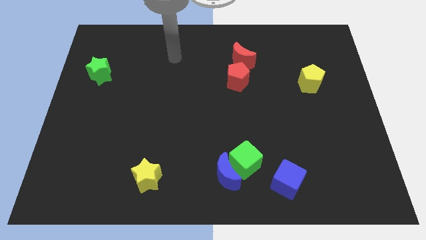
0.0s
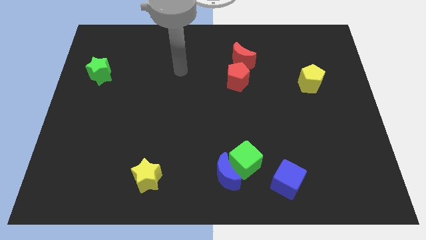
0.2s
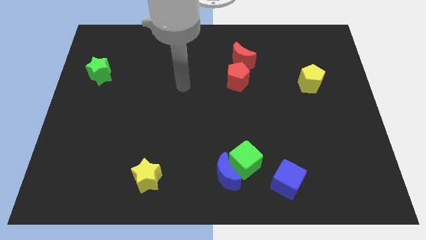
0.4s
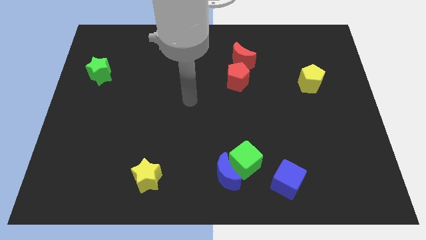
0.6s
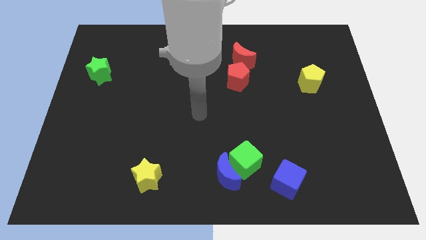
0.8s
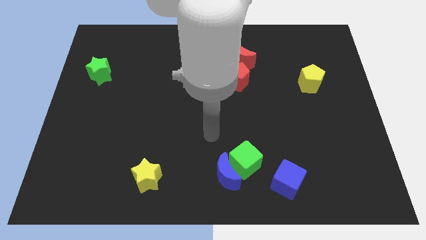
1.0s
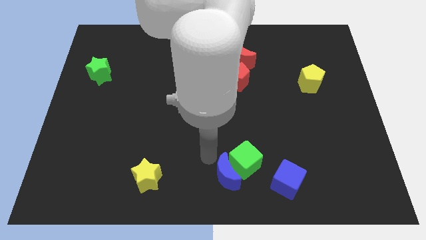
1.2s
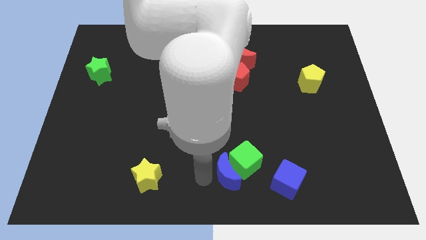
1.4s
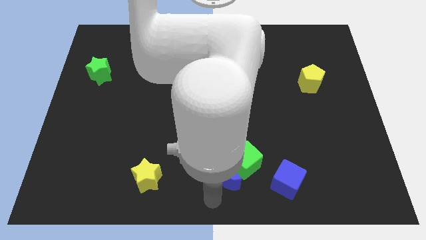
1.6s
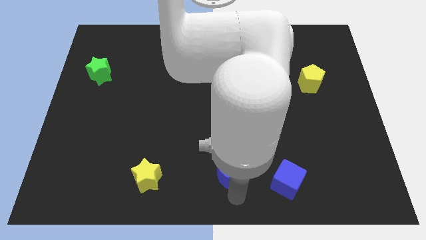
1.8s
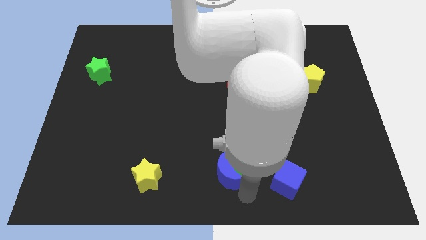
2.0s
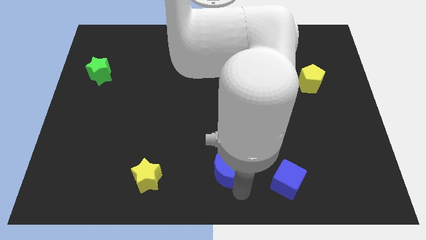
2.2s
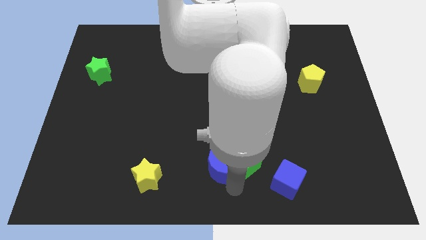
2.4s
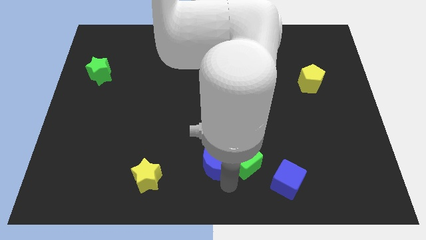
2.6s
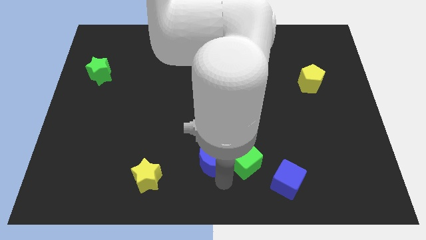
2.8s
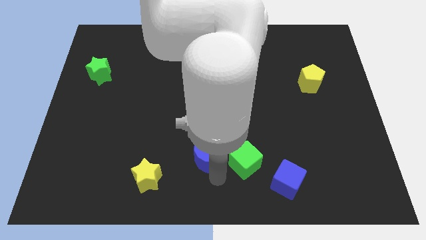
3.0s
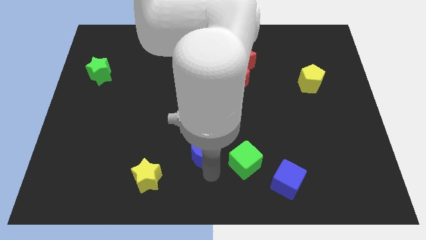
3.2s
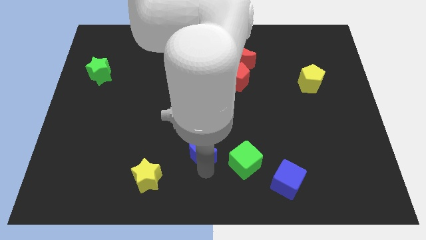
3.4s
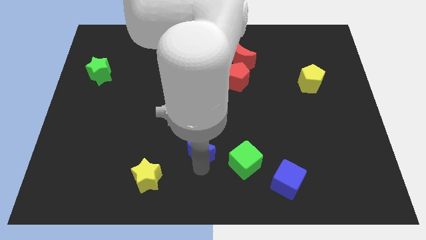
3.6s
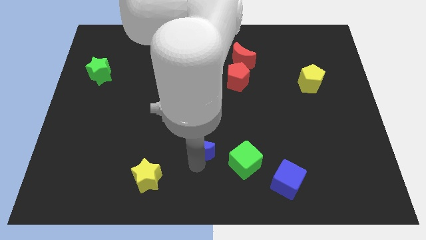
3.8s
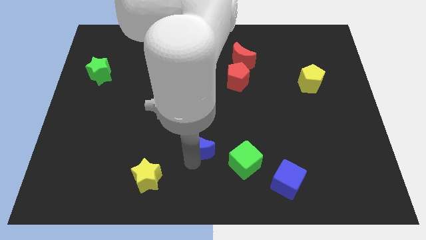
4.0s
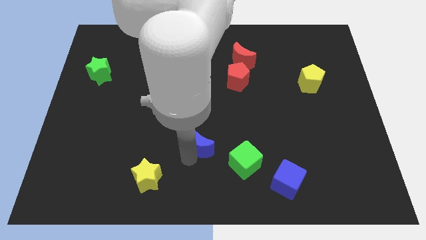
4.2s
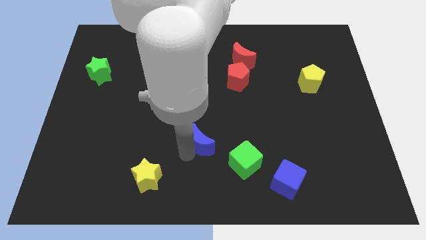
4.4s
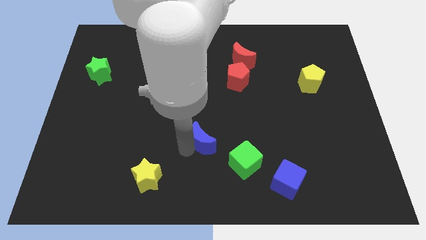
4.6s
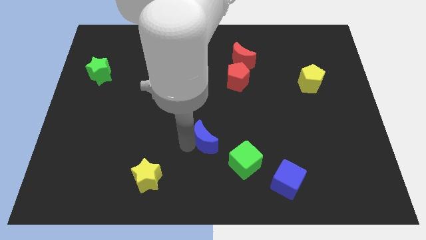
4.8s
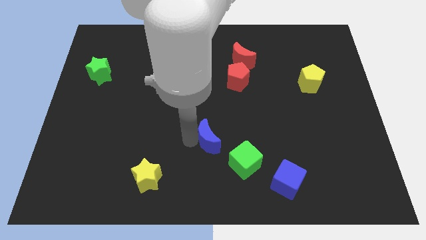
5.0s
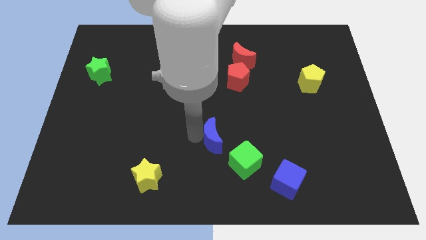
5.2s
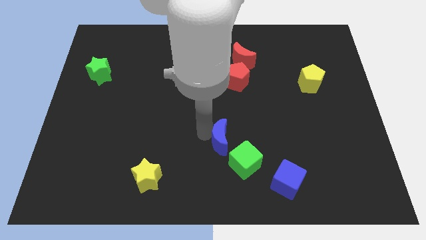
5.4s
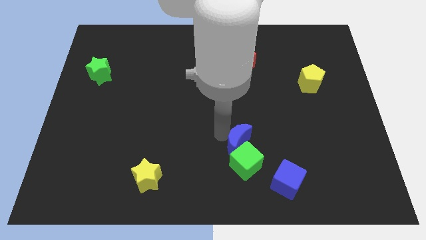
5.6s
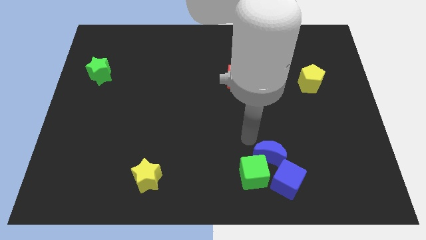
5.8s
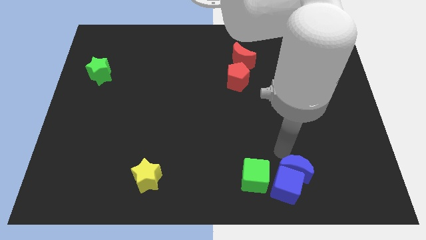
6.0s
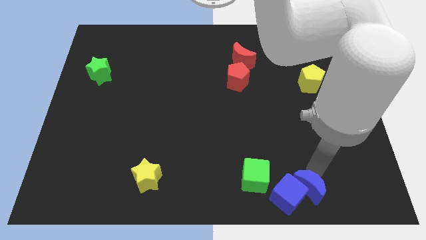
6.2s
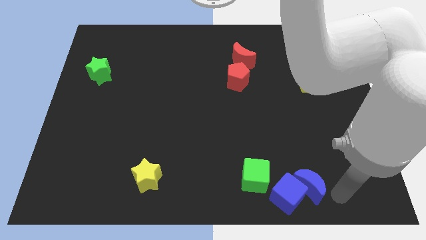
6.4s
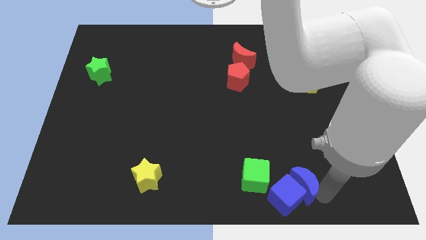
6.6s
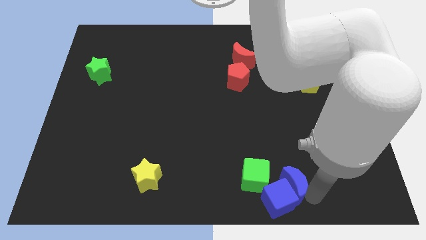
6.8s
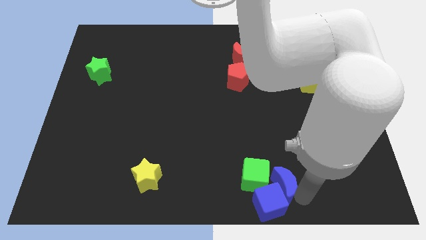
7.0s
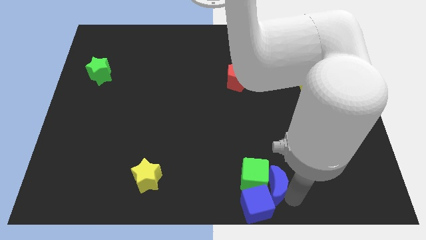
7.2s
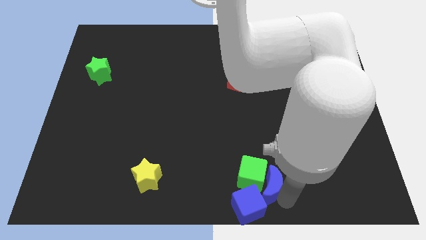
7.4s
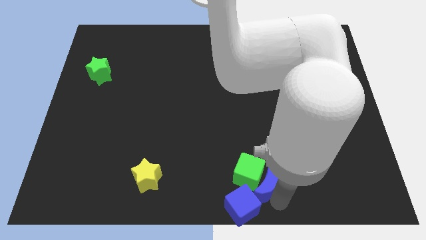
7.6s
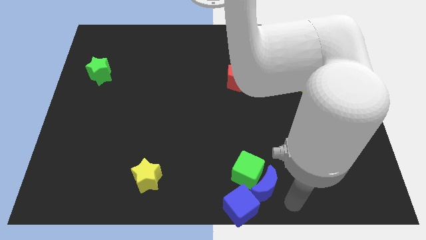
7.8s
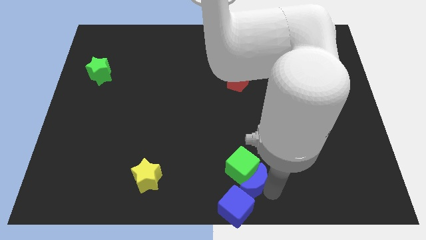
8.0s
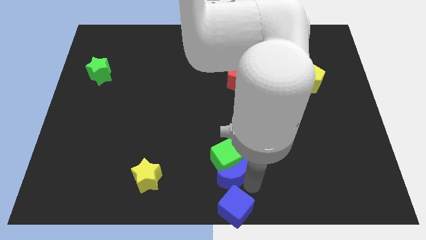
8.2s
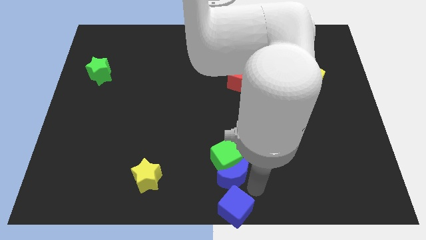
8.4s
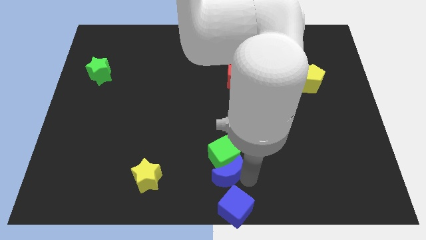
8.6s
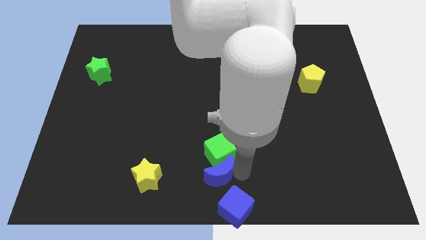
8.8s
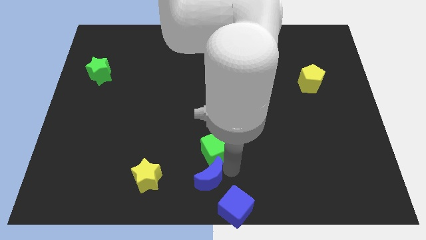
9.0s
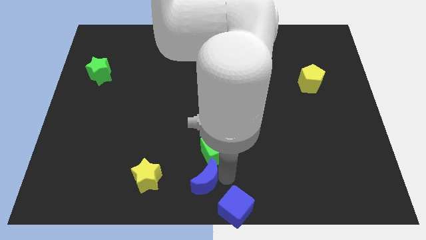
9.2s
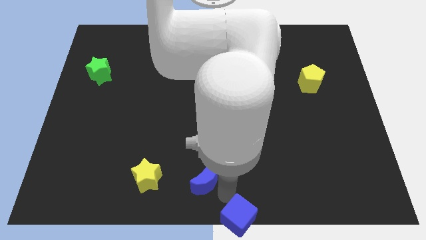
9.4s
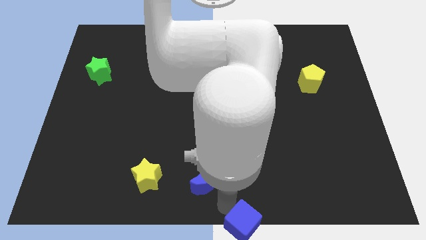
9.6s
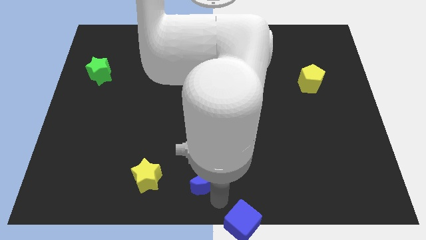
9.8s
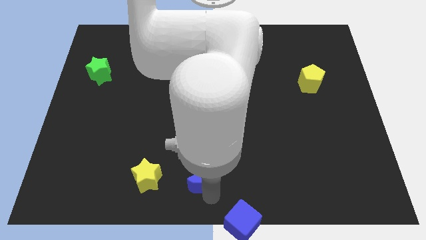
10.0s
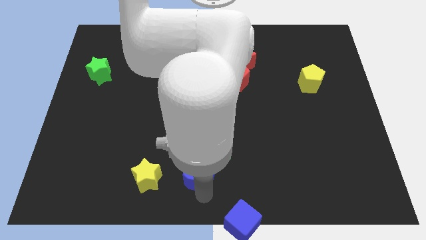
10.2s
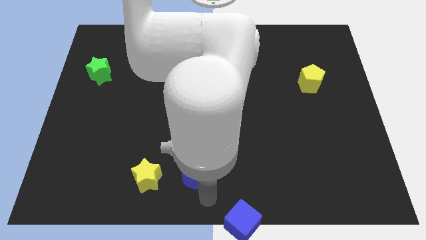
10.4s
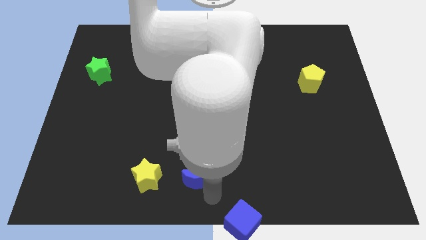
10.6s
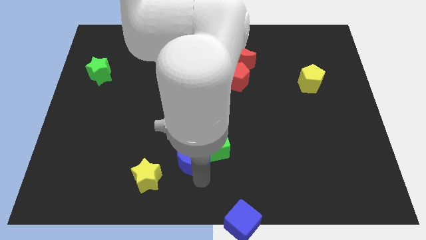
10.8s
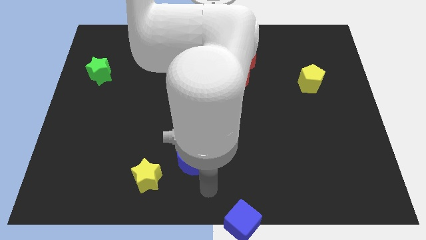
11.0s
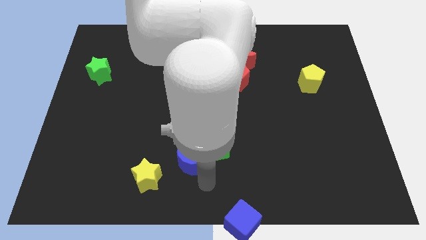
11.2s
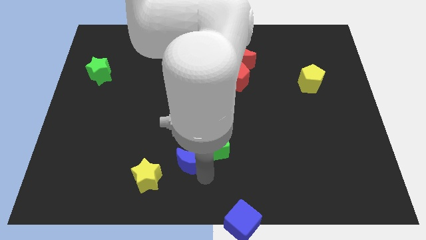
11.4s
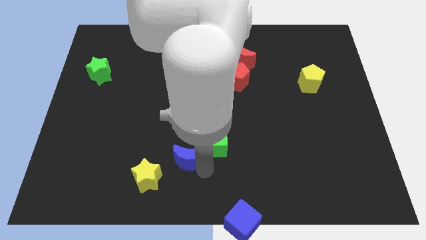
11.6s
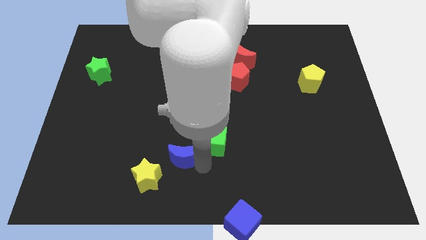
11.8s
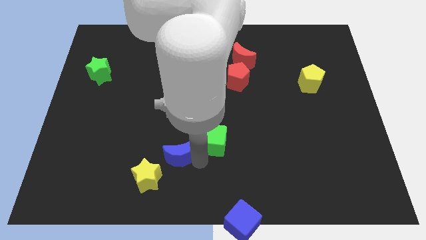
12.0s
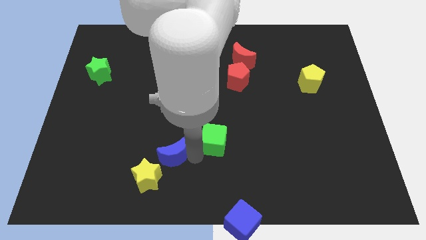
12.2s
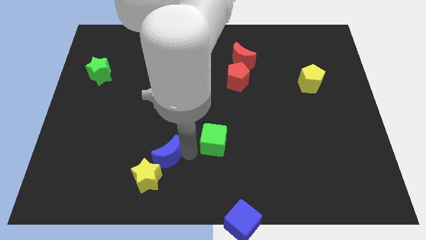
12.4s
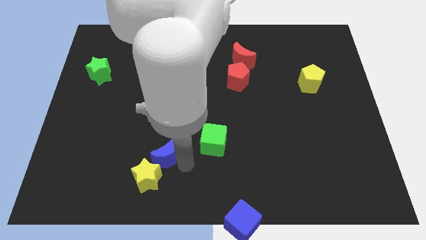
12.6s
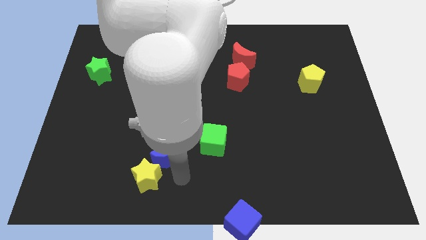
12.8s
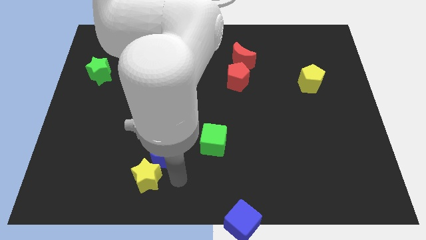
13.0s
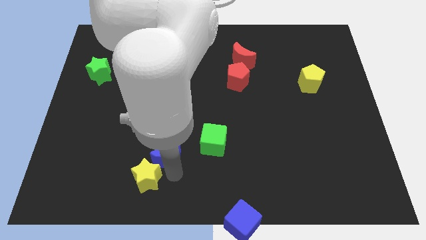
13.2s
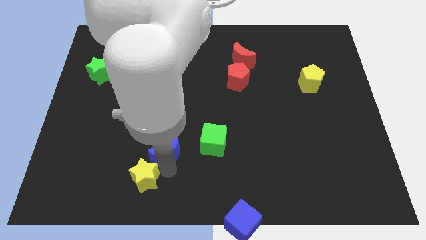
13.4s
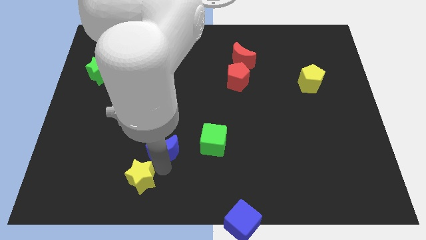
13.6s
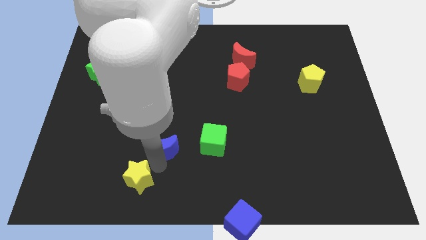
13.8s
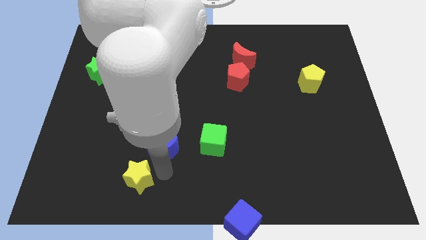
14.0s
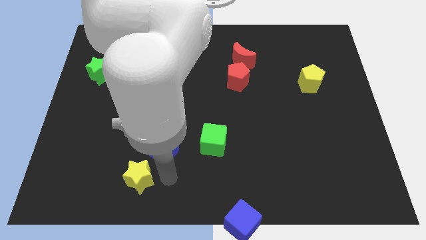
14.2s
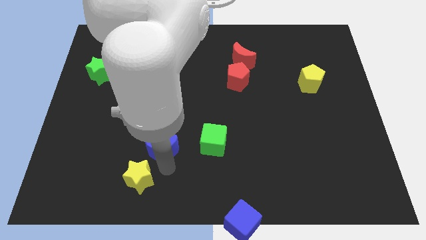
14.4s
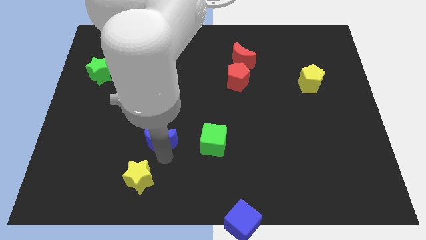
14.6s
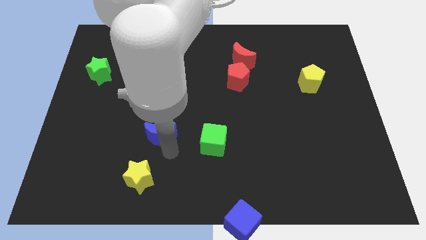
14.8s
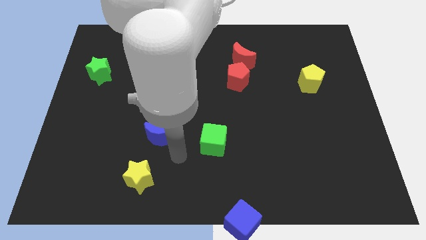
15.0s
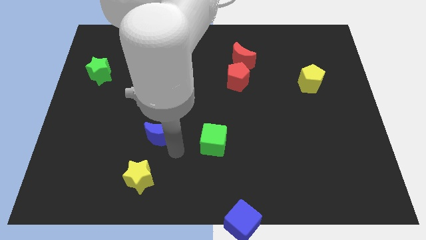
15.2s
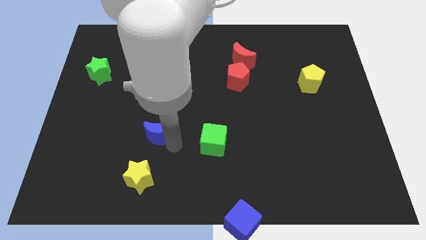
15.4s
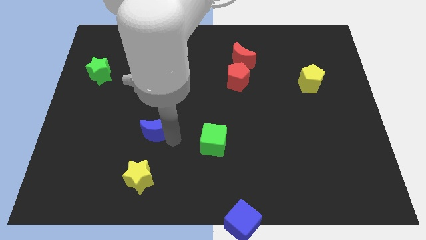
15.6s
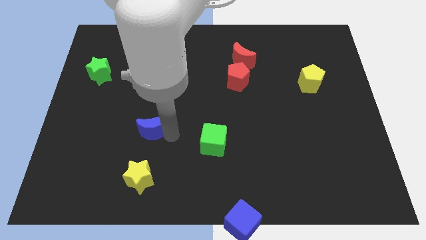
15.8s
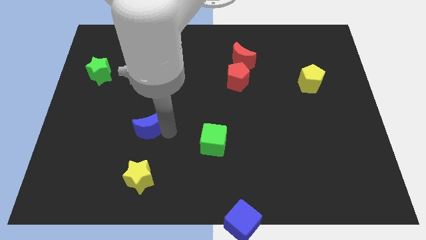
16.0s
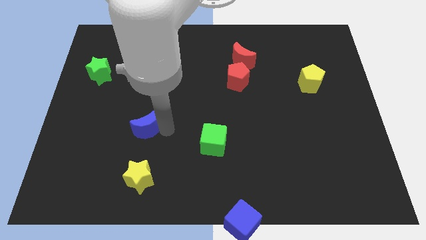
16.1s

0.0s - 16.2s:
push the blue moon upwards and to the left diagonally
